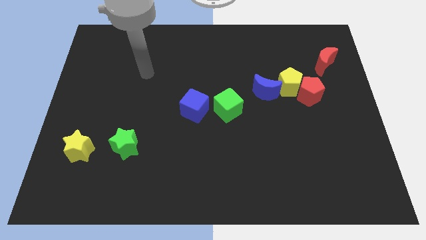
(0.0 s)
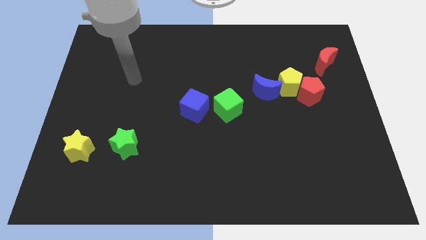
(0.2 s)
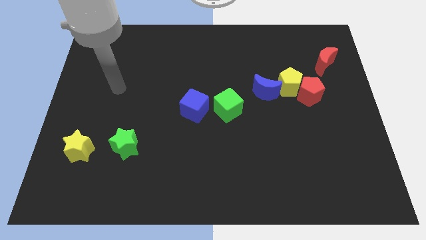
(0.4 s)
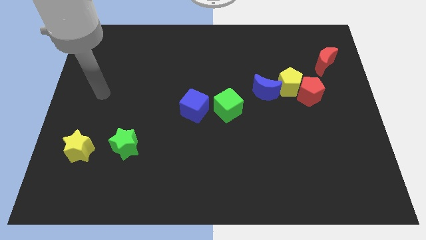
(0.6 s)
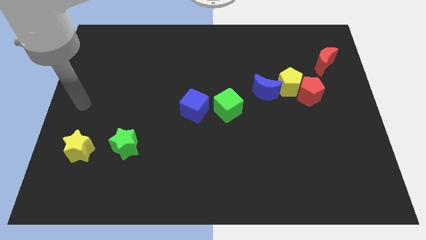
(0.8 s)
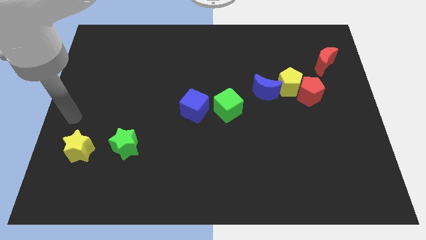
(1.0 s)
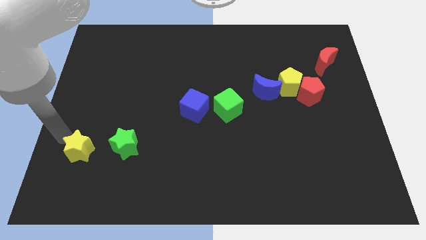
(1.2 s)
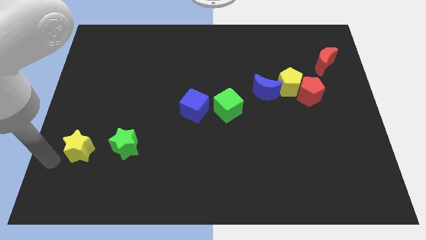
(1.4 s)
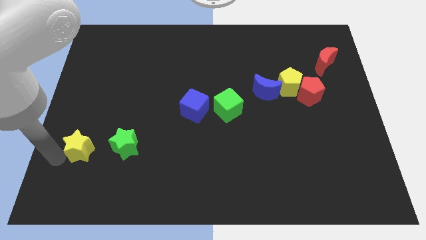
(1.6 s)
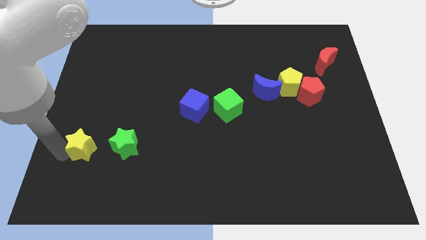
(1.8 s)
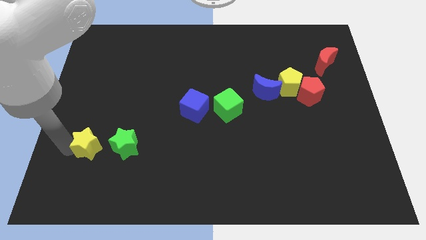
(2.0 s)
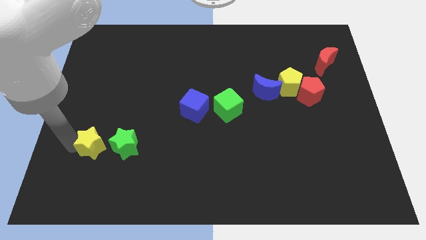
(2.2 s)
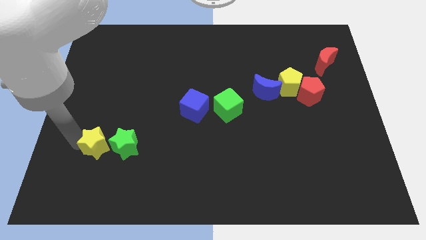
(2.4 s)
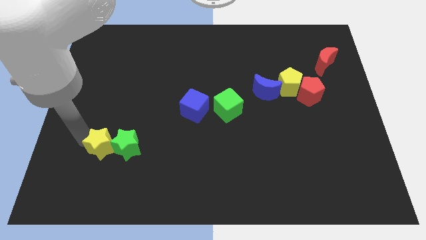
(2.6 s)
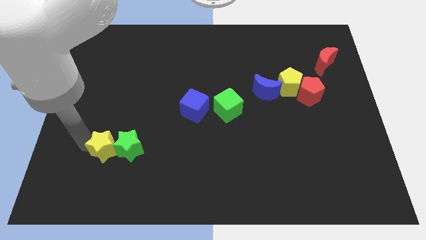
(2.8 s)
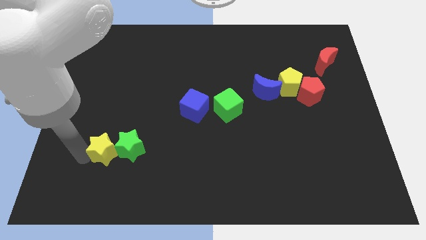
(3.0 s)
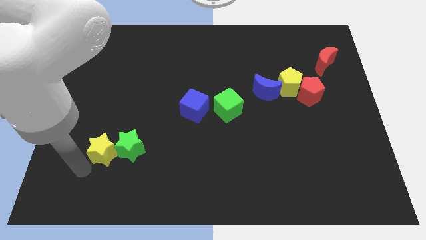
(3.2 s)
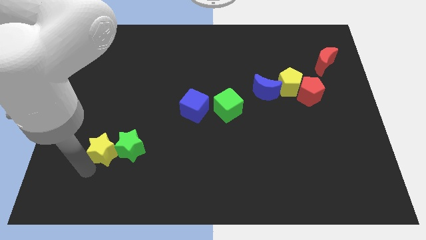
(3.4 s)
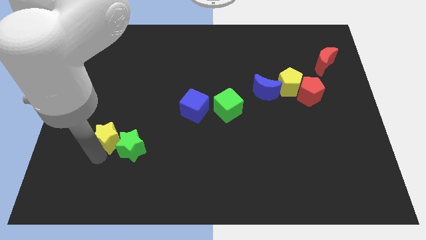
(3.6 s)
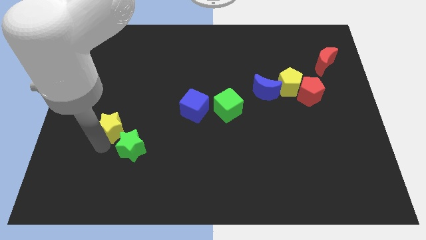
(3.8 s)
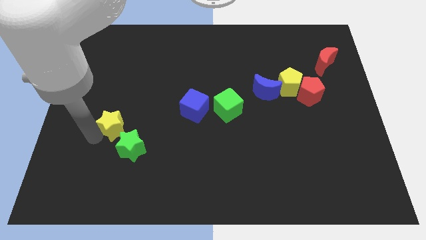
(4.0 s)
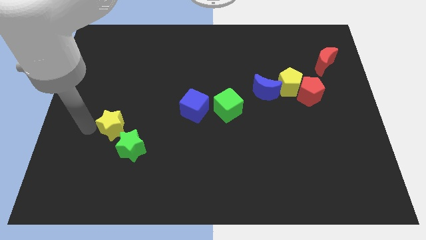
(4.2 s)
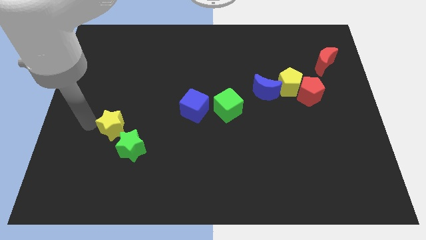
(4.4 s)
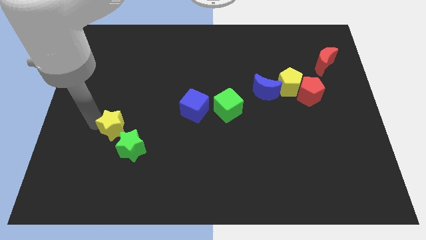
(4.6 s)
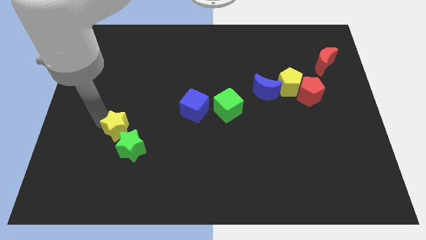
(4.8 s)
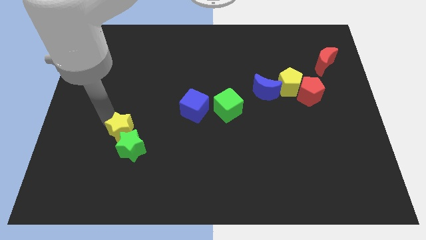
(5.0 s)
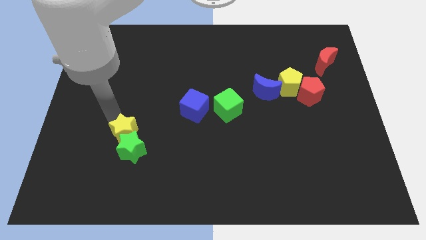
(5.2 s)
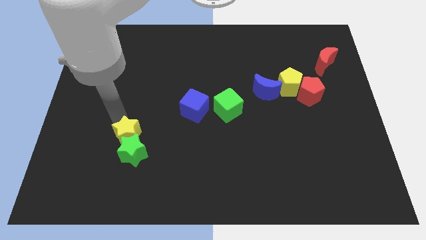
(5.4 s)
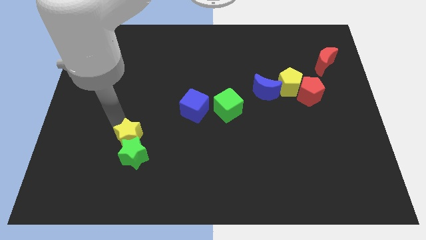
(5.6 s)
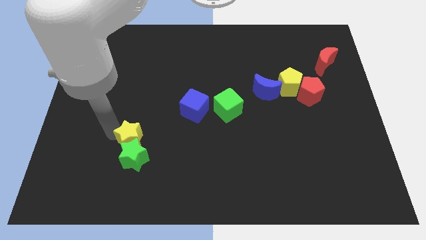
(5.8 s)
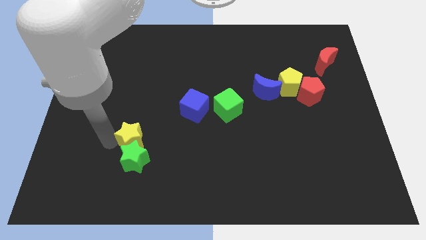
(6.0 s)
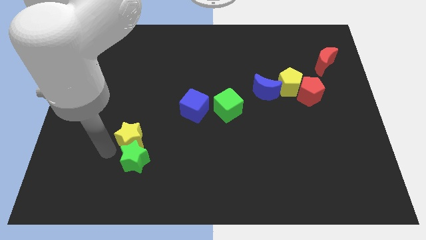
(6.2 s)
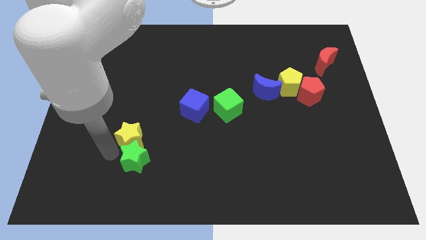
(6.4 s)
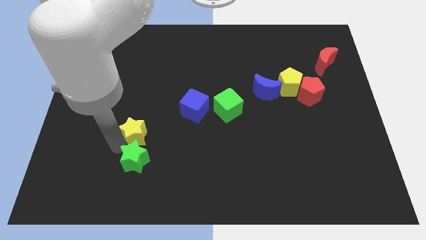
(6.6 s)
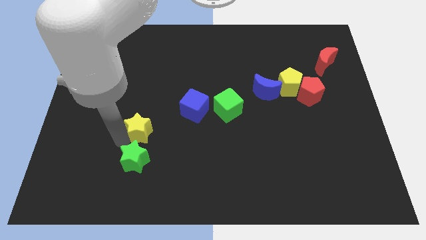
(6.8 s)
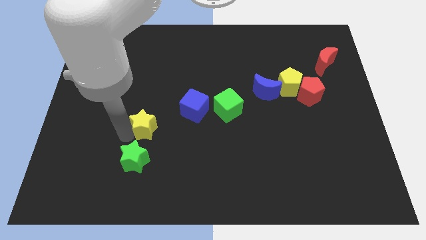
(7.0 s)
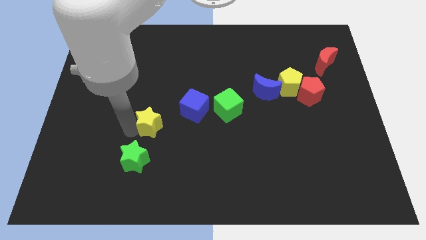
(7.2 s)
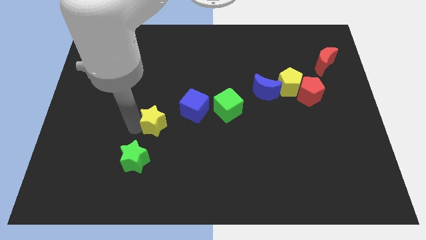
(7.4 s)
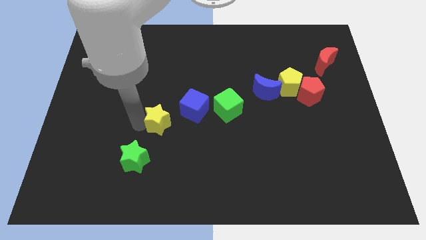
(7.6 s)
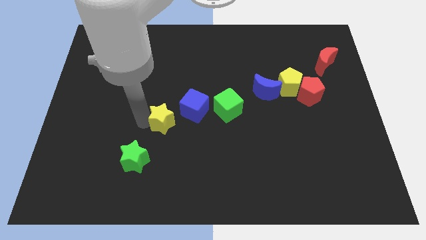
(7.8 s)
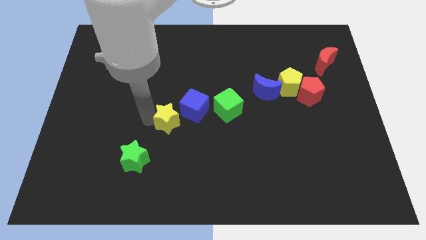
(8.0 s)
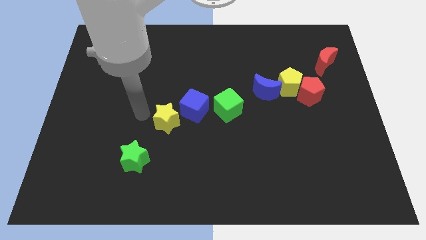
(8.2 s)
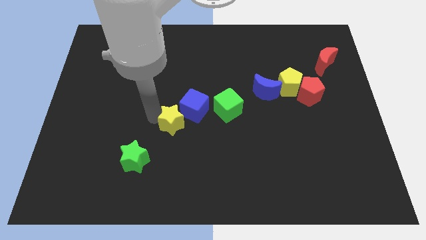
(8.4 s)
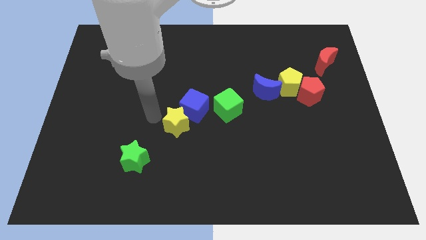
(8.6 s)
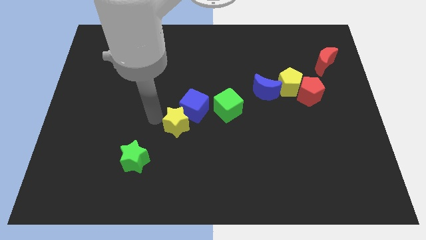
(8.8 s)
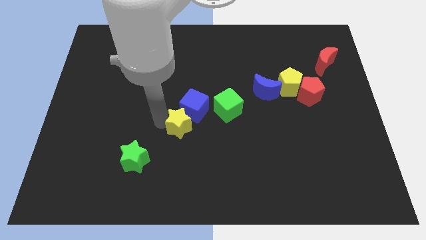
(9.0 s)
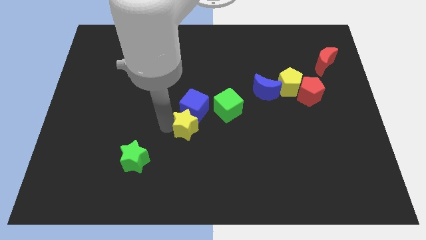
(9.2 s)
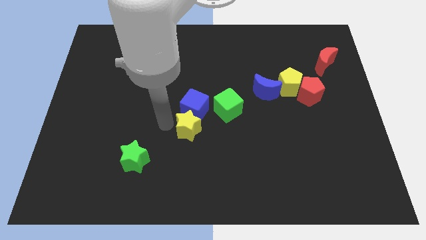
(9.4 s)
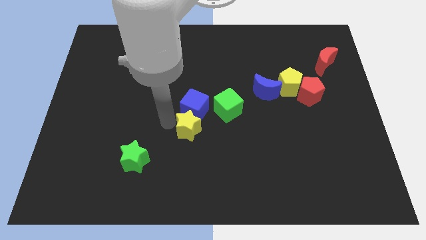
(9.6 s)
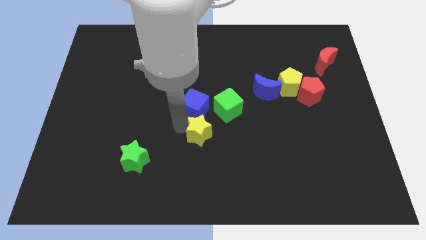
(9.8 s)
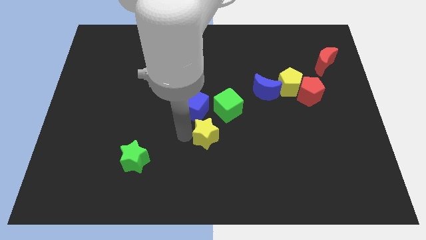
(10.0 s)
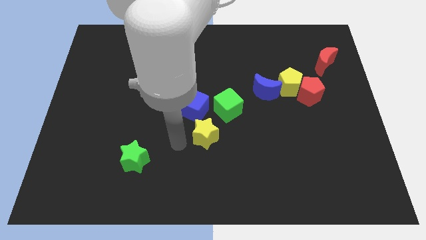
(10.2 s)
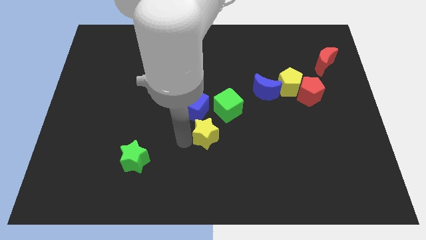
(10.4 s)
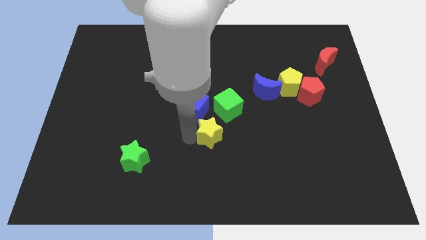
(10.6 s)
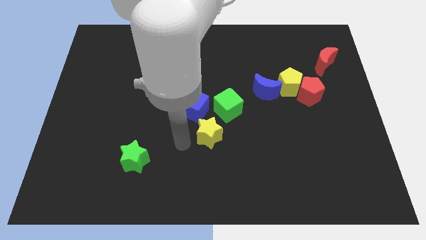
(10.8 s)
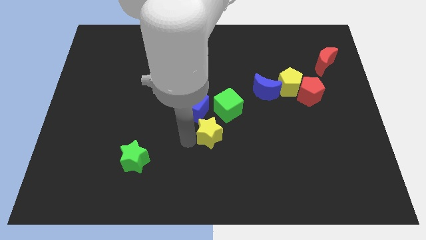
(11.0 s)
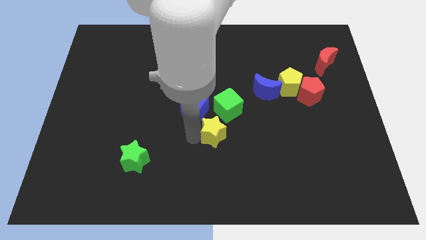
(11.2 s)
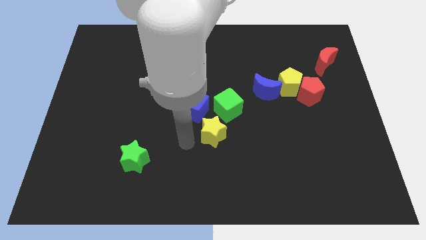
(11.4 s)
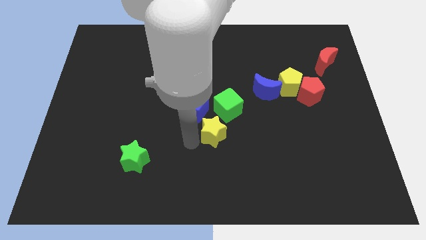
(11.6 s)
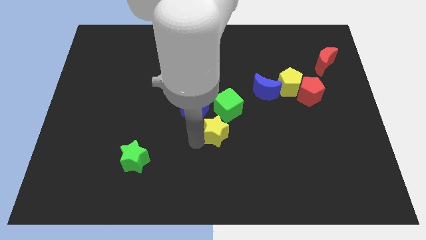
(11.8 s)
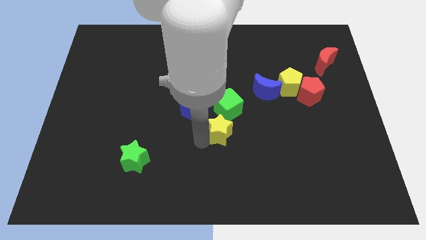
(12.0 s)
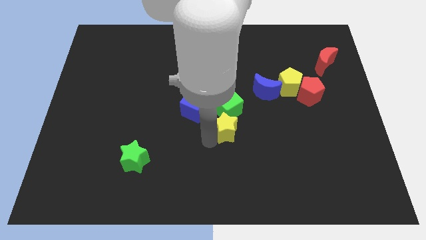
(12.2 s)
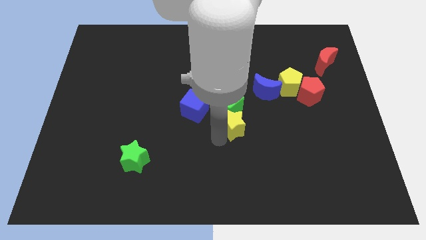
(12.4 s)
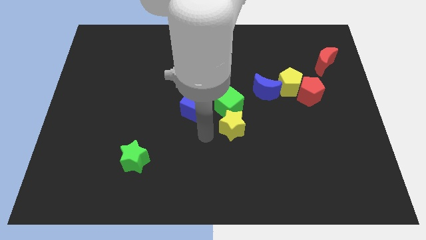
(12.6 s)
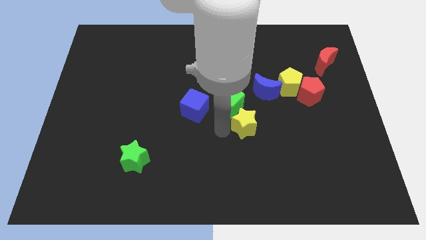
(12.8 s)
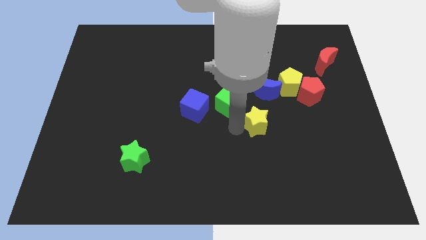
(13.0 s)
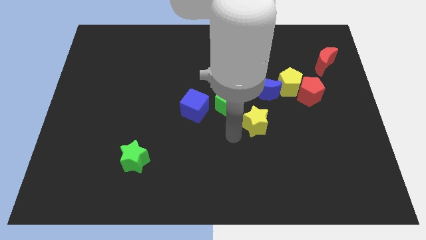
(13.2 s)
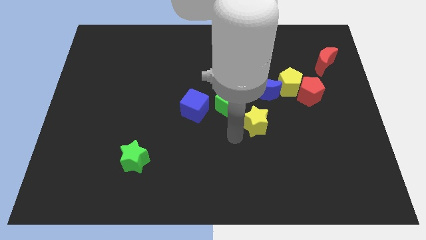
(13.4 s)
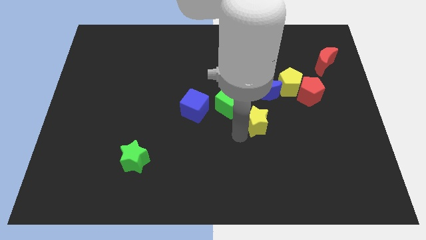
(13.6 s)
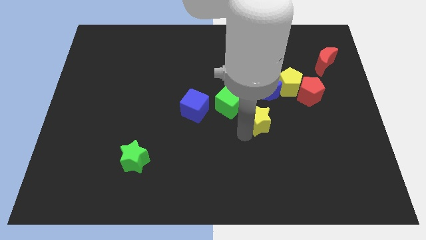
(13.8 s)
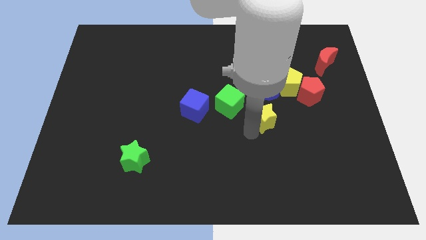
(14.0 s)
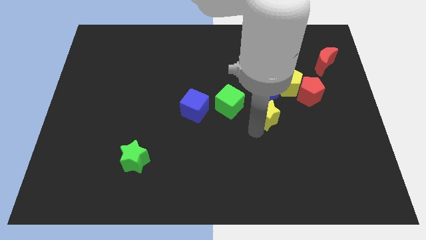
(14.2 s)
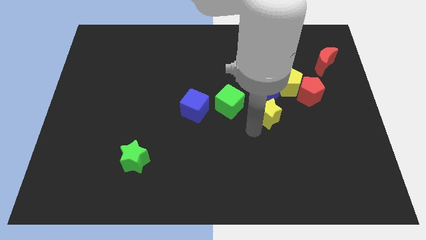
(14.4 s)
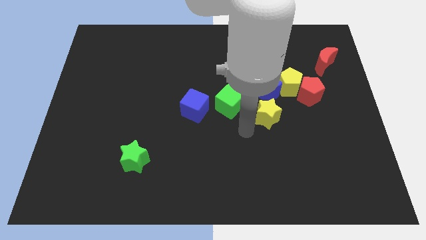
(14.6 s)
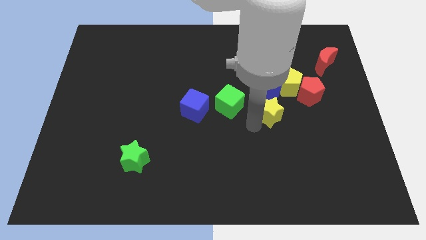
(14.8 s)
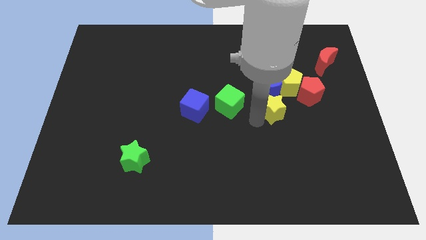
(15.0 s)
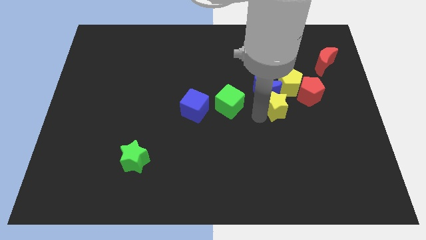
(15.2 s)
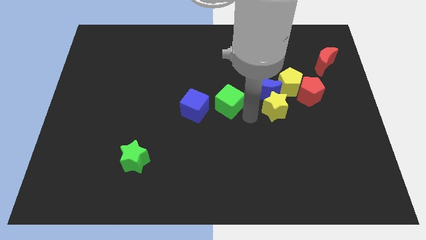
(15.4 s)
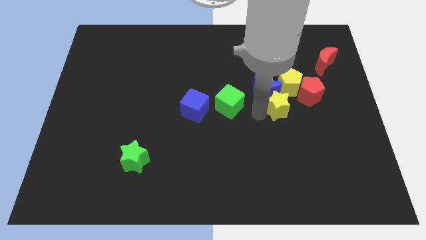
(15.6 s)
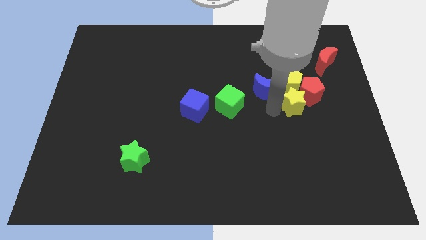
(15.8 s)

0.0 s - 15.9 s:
push the yellow star towards the red pentagon
